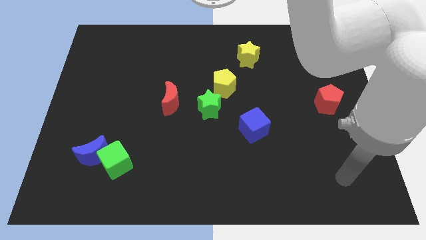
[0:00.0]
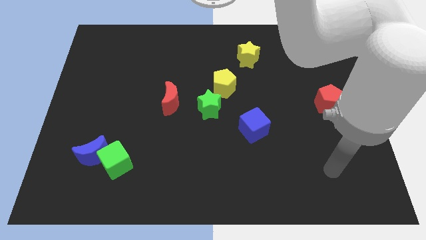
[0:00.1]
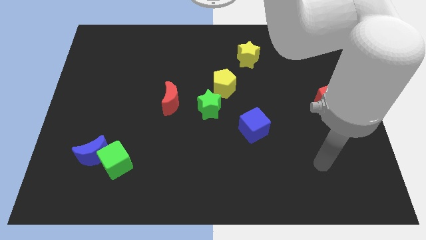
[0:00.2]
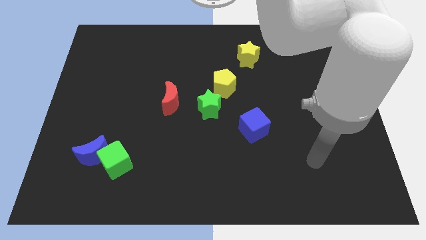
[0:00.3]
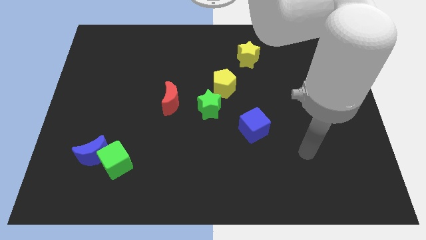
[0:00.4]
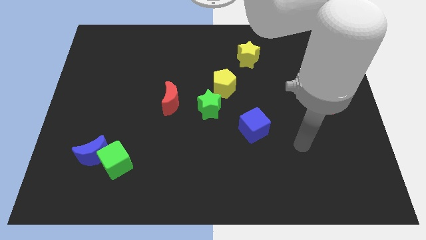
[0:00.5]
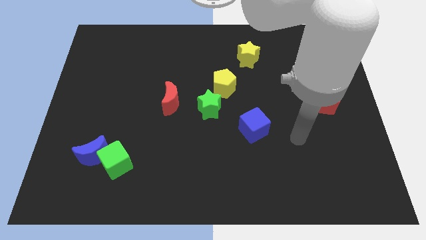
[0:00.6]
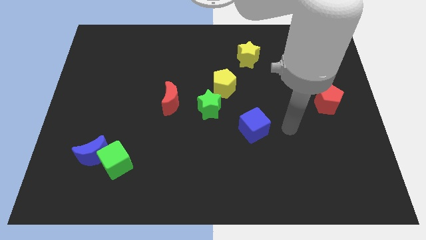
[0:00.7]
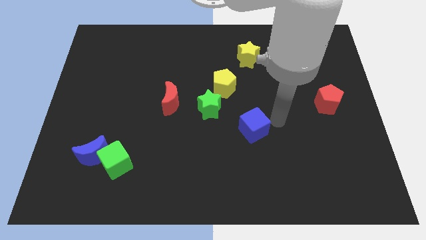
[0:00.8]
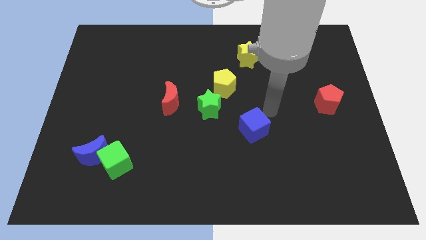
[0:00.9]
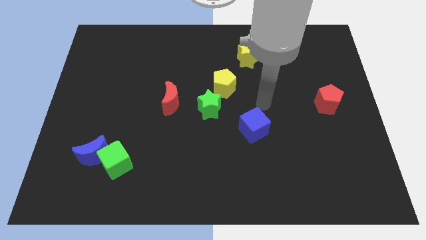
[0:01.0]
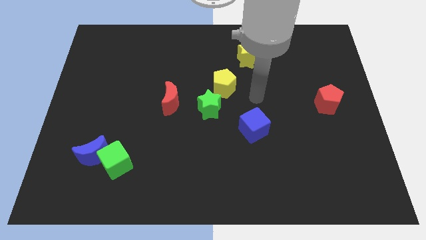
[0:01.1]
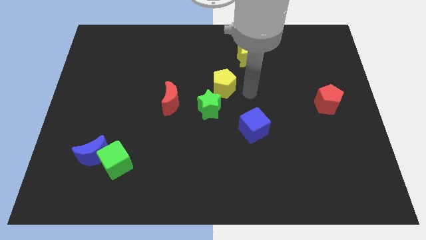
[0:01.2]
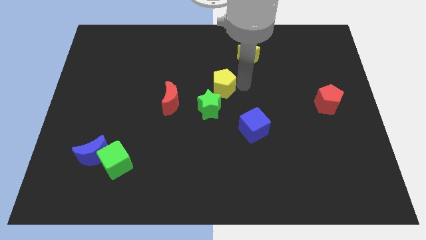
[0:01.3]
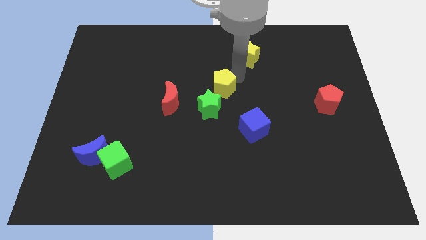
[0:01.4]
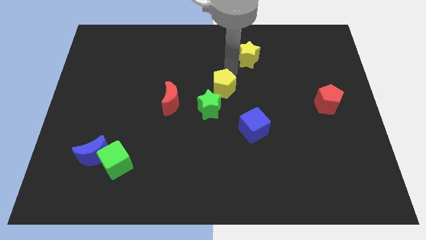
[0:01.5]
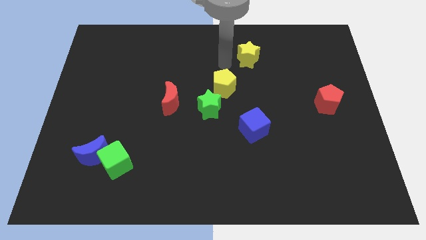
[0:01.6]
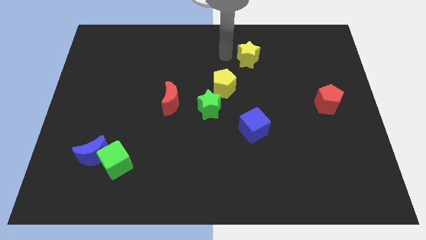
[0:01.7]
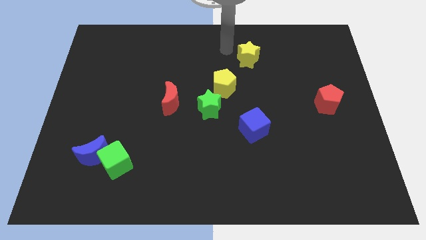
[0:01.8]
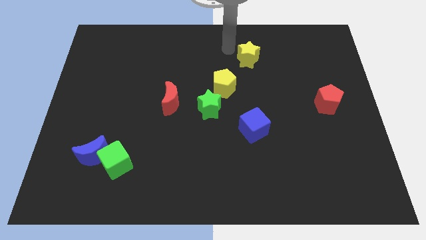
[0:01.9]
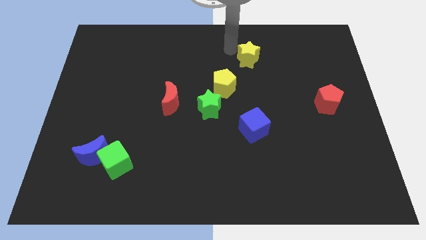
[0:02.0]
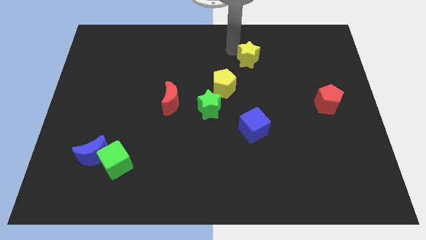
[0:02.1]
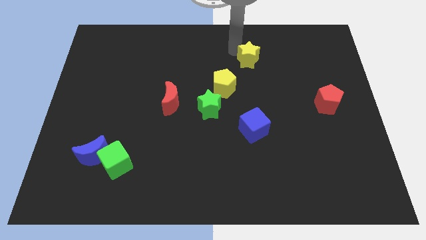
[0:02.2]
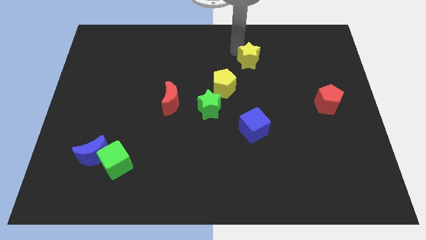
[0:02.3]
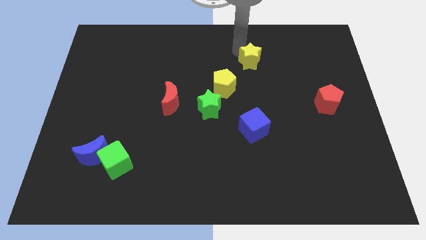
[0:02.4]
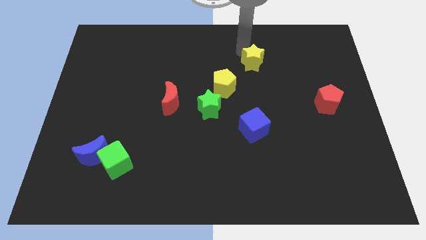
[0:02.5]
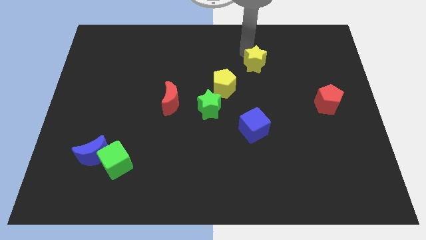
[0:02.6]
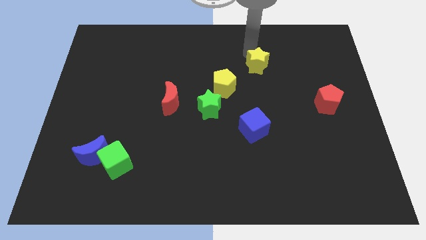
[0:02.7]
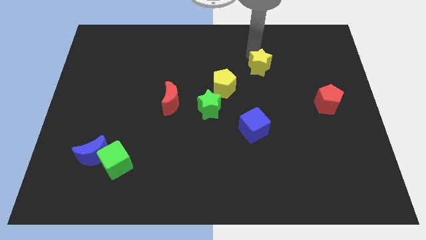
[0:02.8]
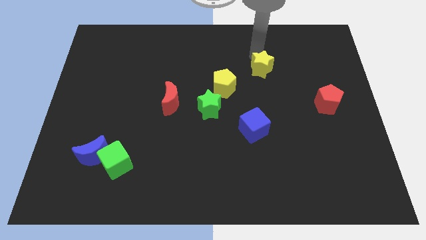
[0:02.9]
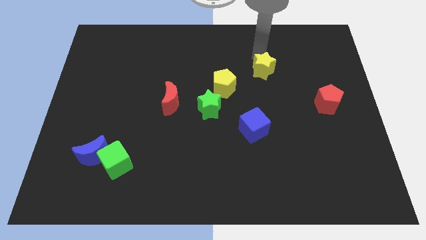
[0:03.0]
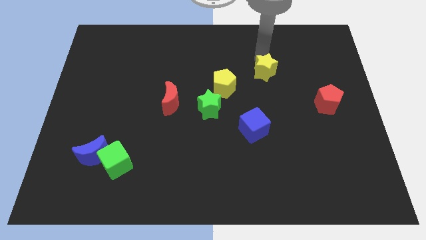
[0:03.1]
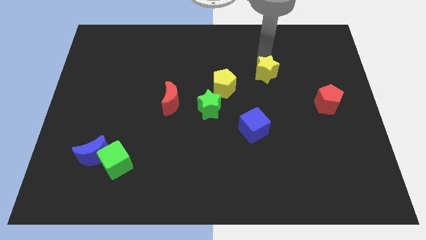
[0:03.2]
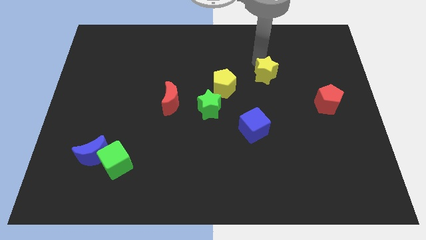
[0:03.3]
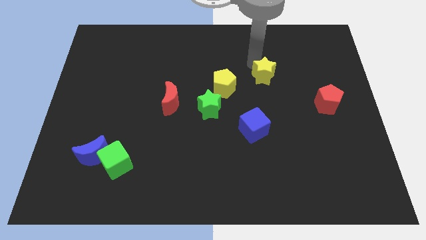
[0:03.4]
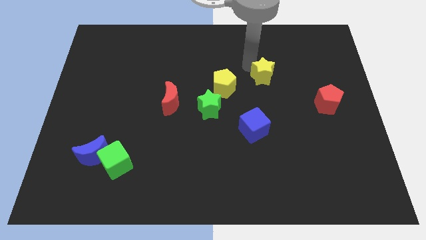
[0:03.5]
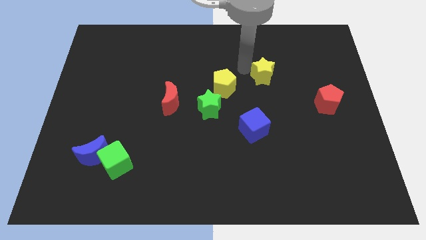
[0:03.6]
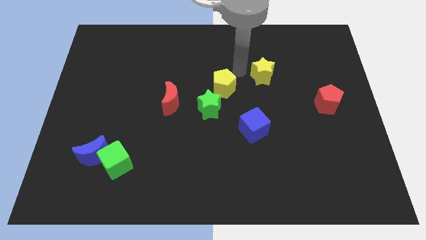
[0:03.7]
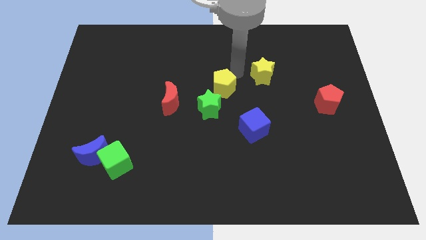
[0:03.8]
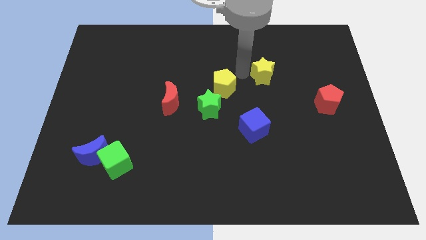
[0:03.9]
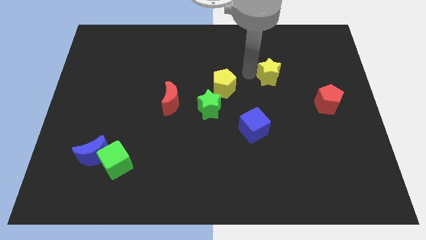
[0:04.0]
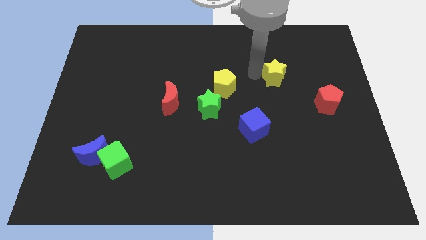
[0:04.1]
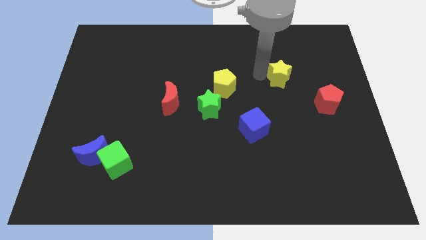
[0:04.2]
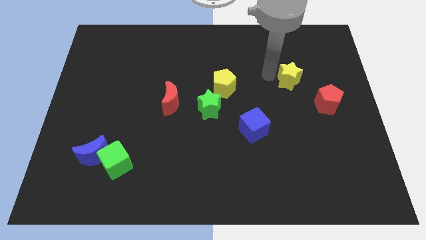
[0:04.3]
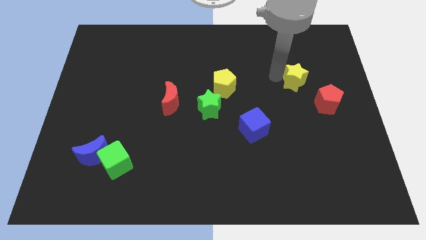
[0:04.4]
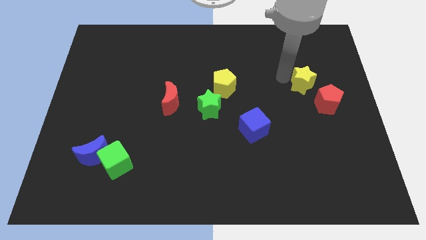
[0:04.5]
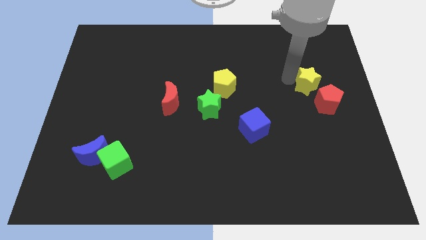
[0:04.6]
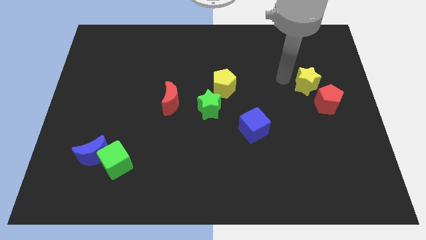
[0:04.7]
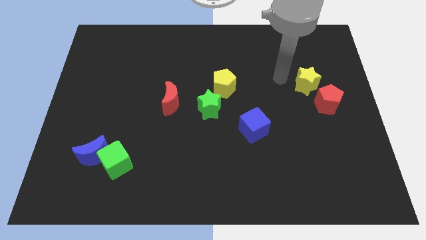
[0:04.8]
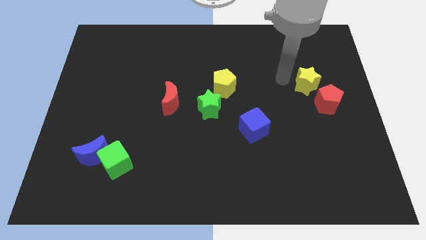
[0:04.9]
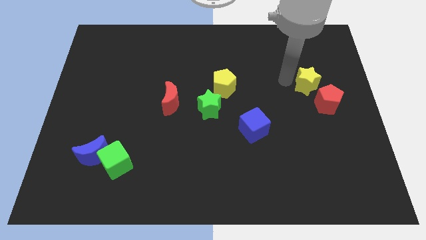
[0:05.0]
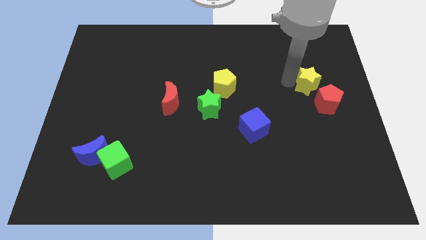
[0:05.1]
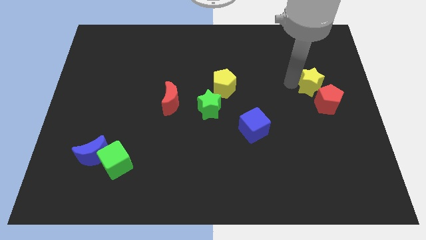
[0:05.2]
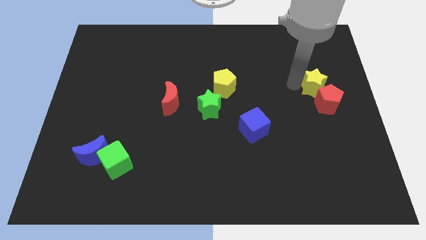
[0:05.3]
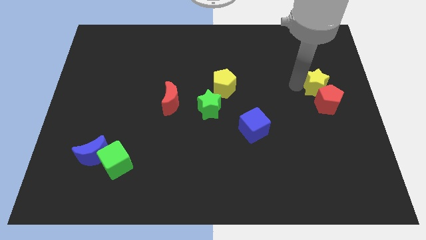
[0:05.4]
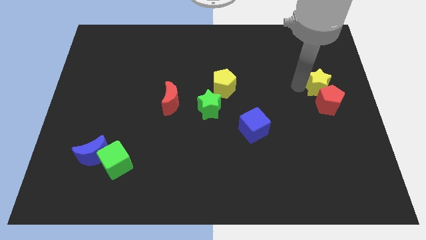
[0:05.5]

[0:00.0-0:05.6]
slide the yellow star to the right side of the board
